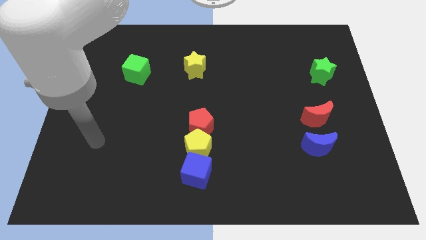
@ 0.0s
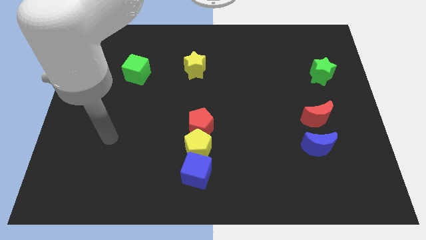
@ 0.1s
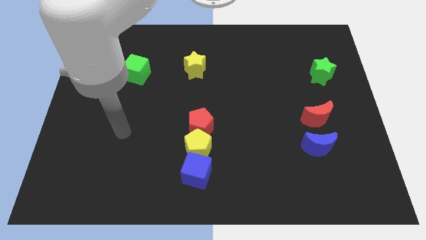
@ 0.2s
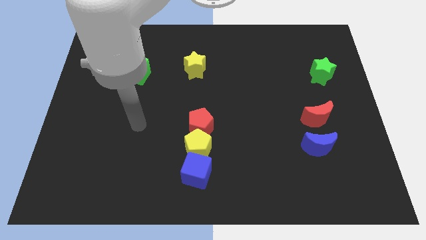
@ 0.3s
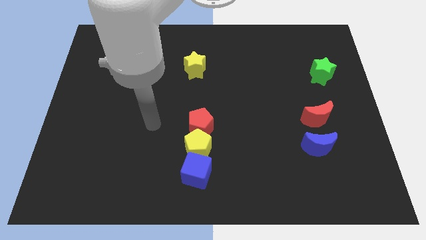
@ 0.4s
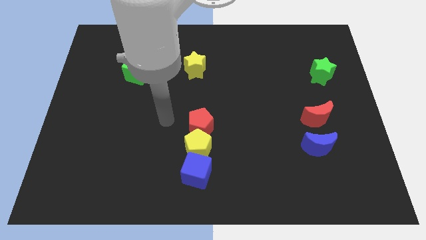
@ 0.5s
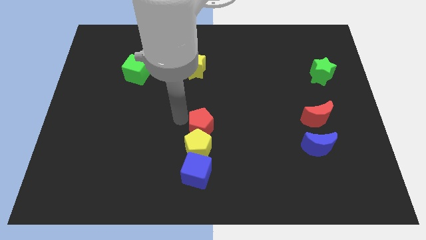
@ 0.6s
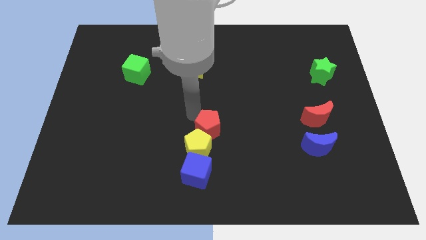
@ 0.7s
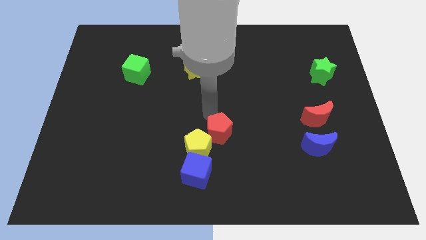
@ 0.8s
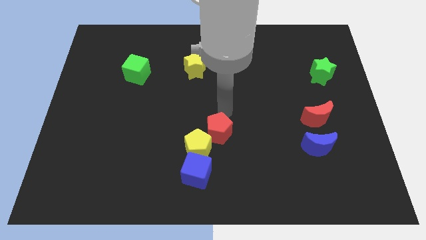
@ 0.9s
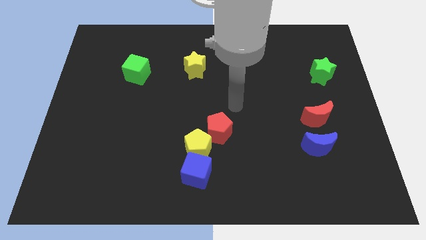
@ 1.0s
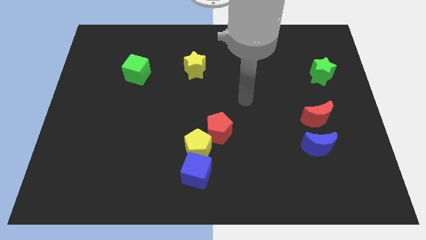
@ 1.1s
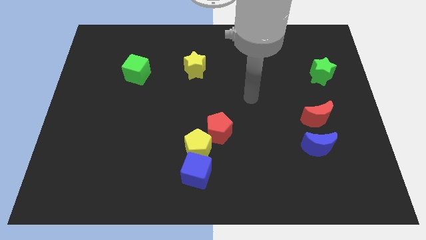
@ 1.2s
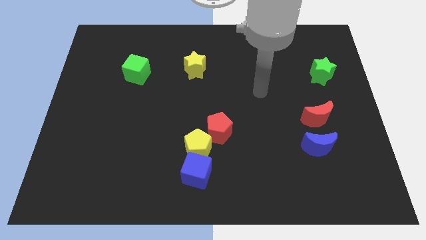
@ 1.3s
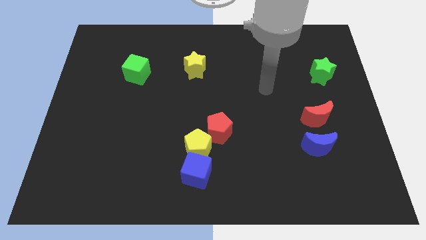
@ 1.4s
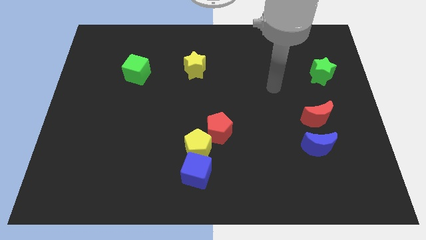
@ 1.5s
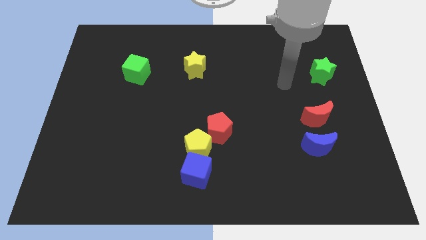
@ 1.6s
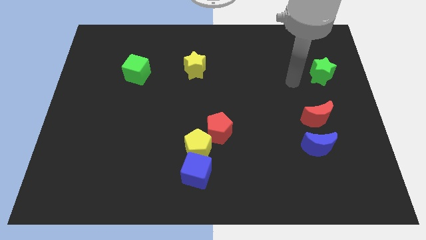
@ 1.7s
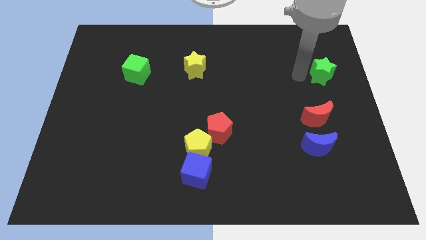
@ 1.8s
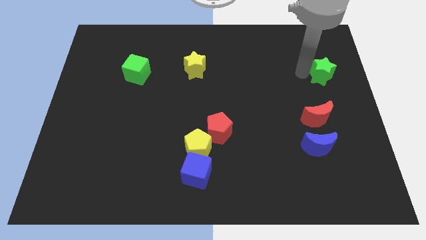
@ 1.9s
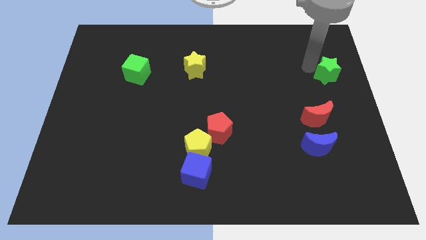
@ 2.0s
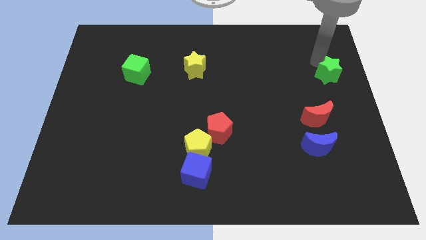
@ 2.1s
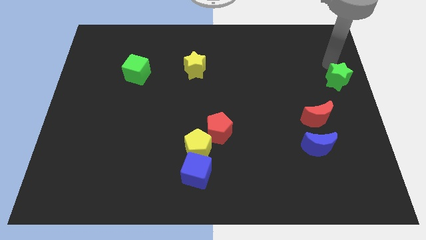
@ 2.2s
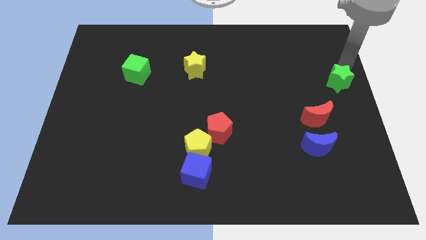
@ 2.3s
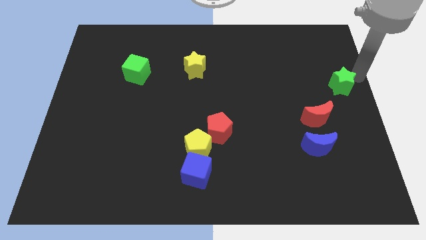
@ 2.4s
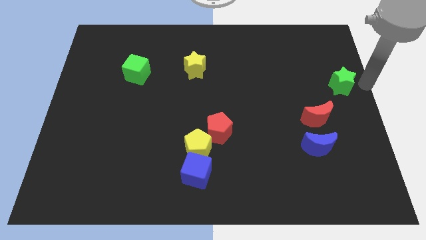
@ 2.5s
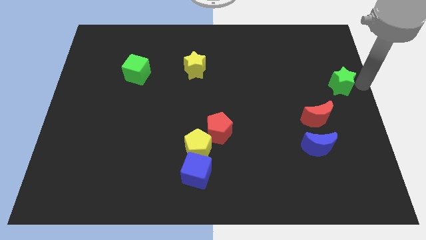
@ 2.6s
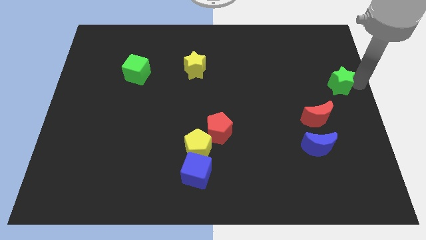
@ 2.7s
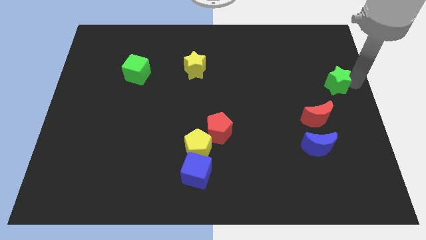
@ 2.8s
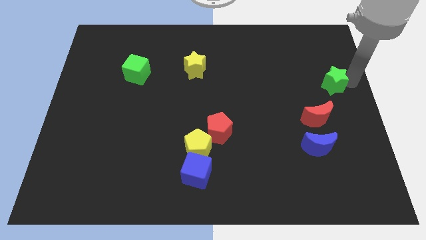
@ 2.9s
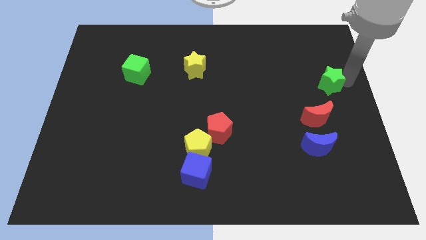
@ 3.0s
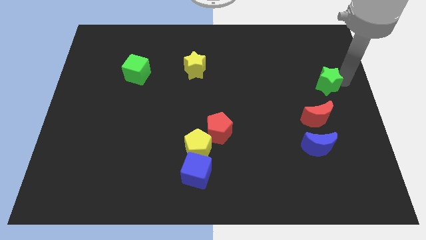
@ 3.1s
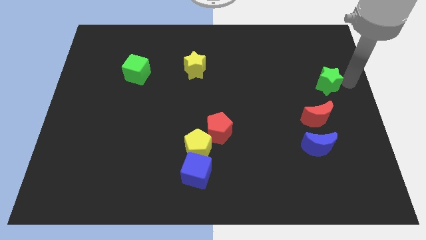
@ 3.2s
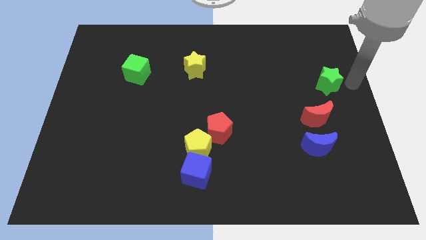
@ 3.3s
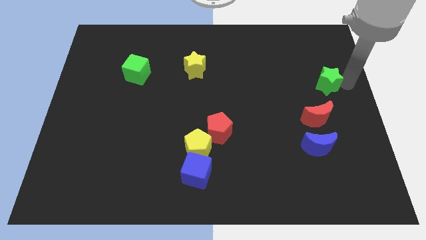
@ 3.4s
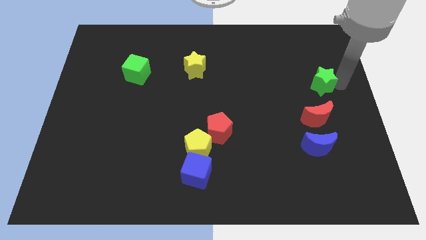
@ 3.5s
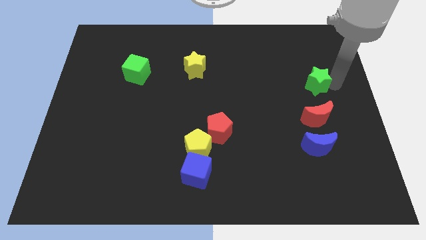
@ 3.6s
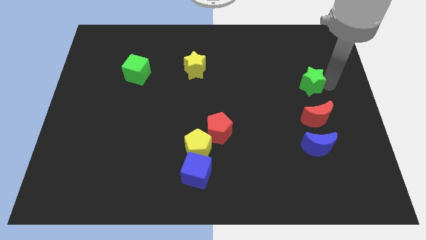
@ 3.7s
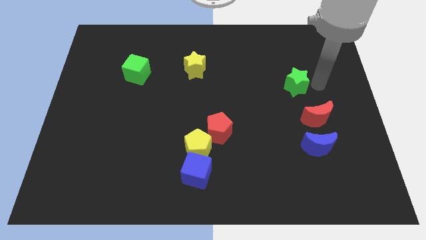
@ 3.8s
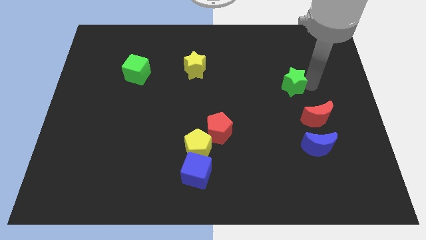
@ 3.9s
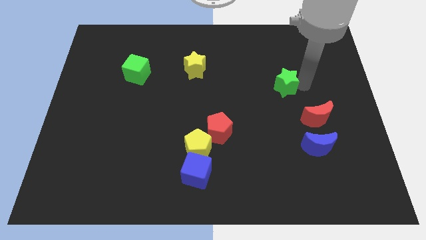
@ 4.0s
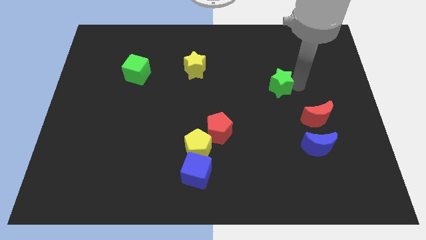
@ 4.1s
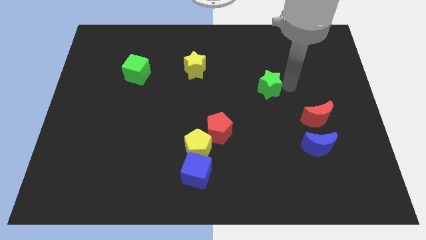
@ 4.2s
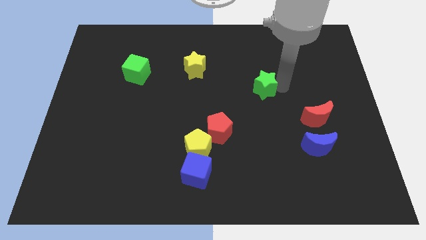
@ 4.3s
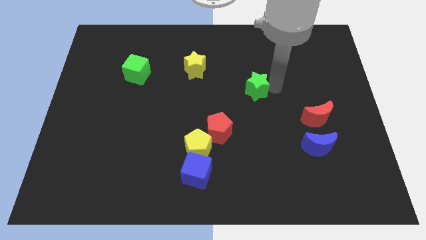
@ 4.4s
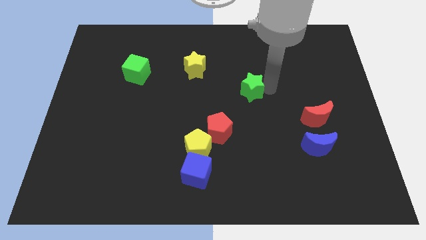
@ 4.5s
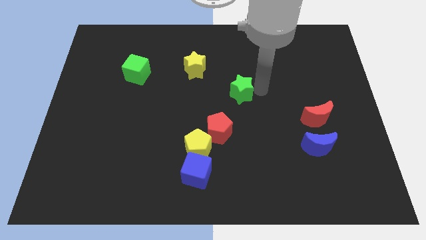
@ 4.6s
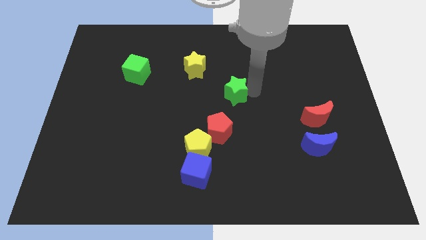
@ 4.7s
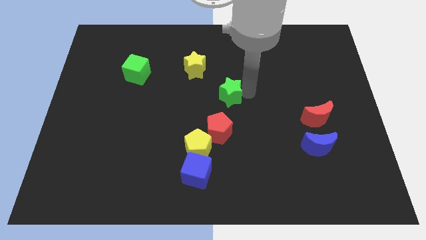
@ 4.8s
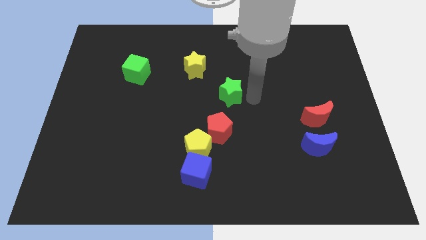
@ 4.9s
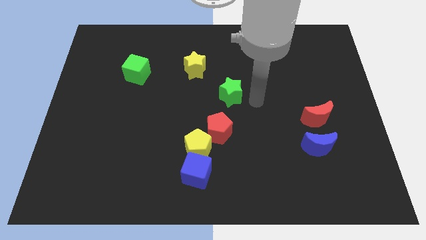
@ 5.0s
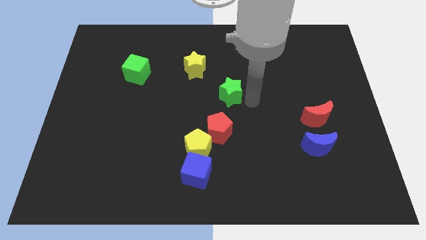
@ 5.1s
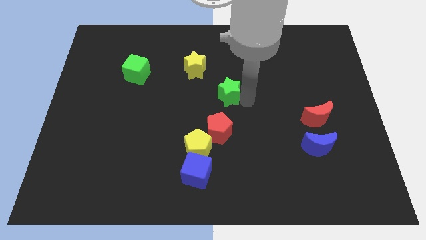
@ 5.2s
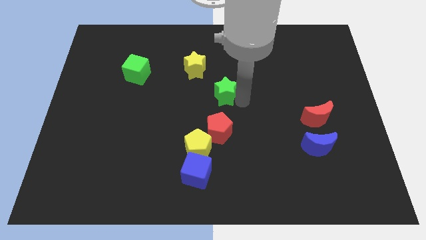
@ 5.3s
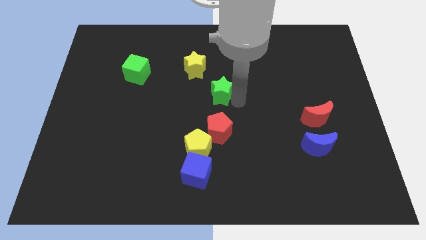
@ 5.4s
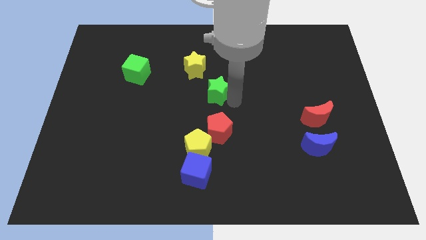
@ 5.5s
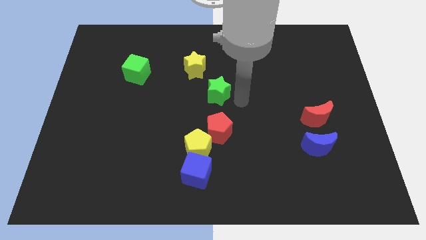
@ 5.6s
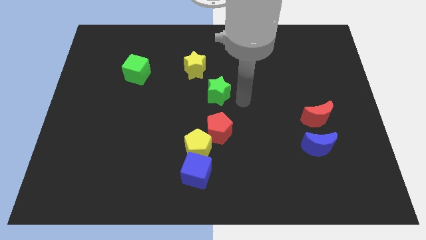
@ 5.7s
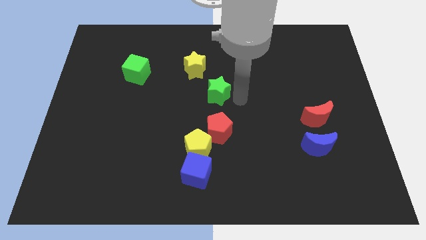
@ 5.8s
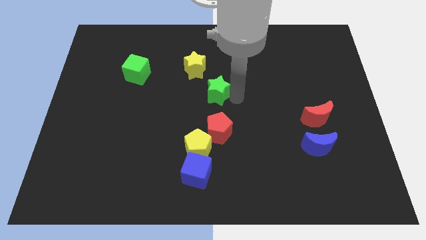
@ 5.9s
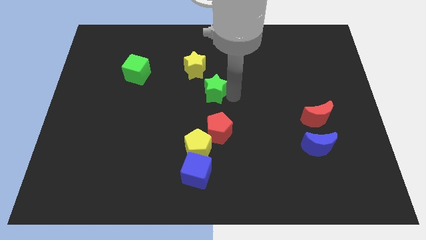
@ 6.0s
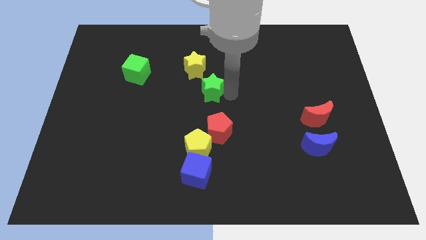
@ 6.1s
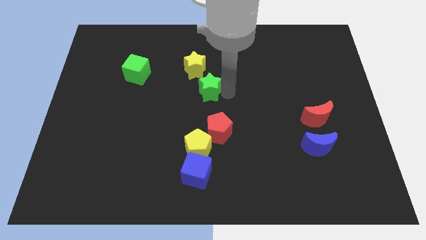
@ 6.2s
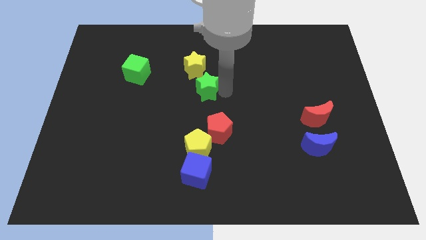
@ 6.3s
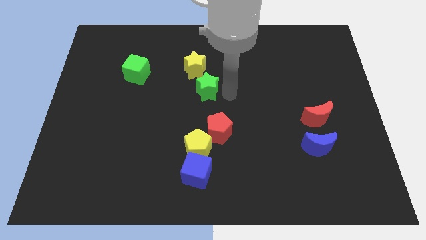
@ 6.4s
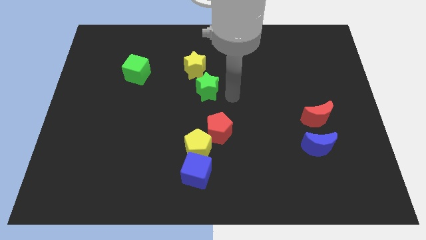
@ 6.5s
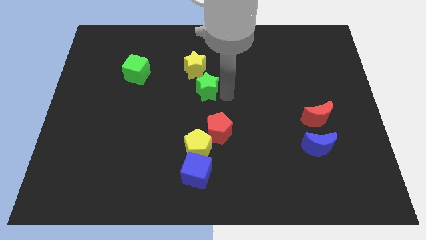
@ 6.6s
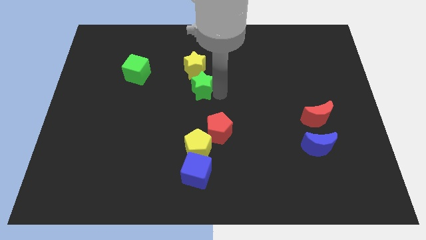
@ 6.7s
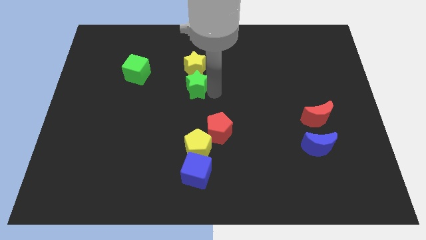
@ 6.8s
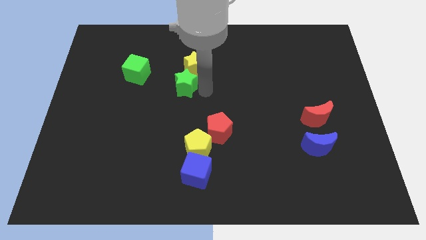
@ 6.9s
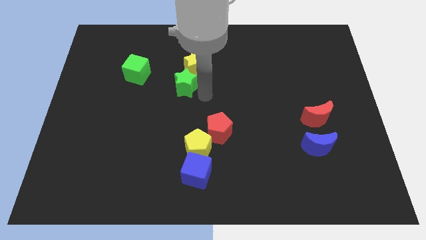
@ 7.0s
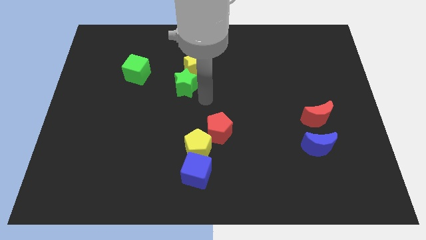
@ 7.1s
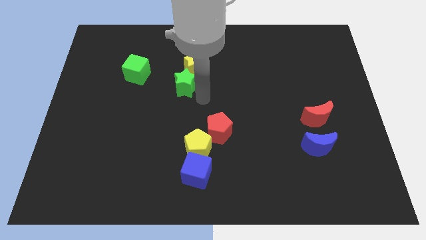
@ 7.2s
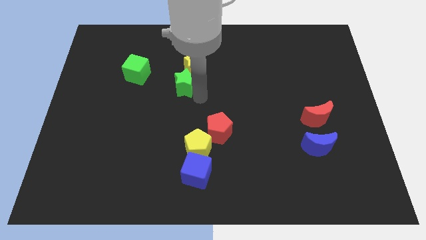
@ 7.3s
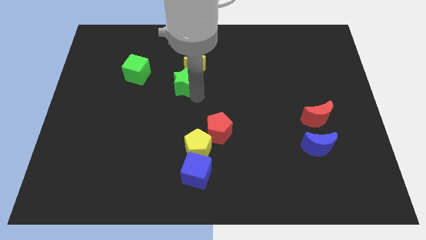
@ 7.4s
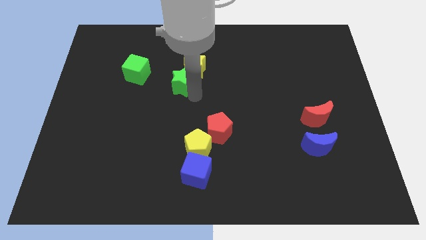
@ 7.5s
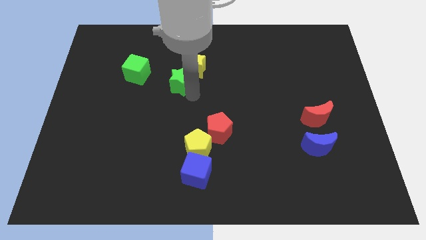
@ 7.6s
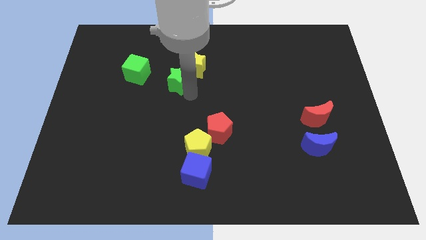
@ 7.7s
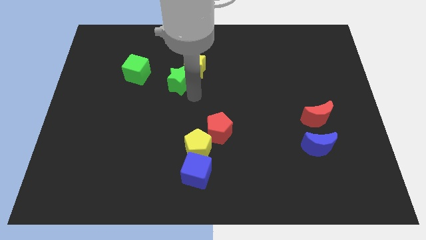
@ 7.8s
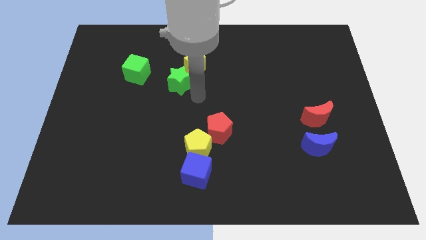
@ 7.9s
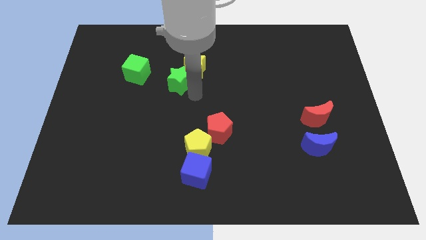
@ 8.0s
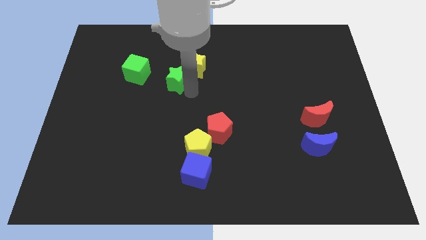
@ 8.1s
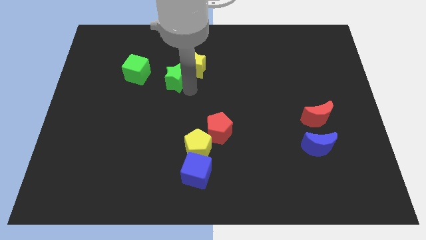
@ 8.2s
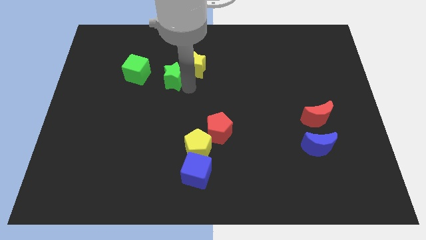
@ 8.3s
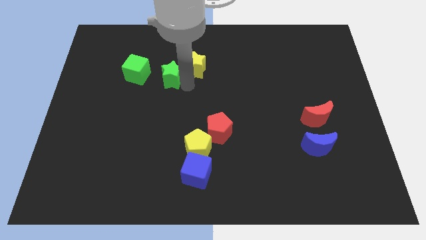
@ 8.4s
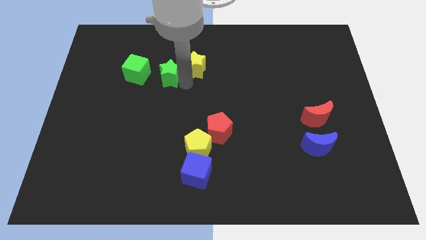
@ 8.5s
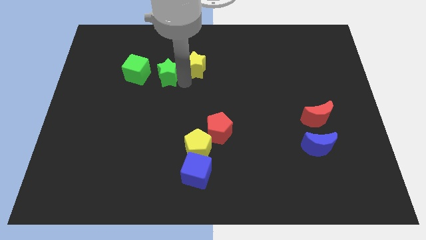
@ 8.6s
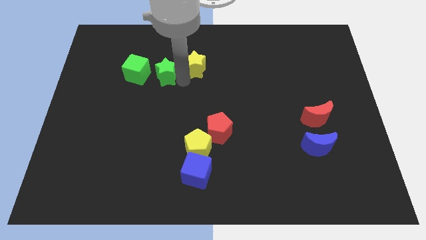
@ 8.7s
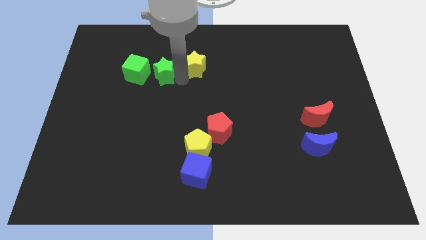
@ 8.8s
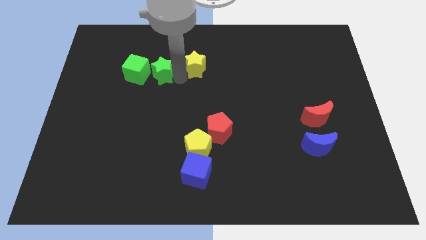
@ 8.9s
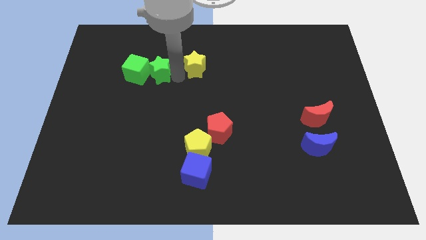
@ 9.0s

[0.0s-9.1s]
slide the green star towards the green cube
